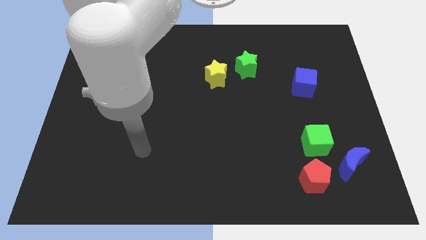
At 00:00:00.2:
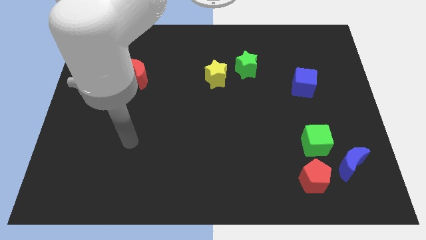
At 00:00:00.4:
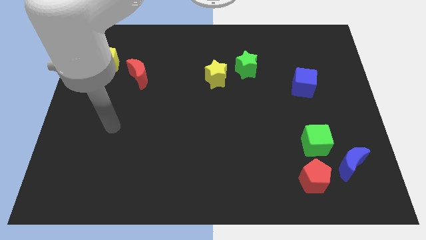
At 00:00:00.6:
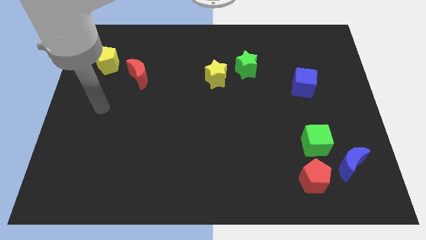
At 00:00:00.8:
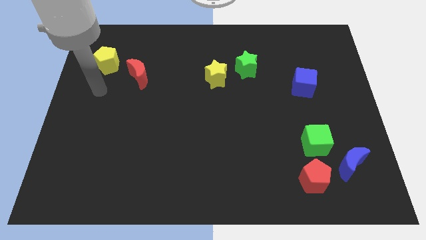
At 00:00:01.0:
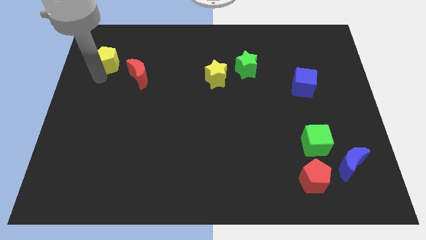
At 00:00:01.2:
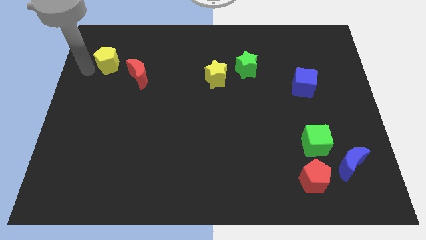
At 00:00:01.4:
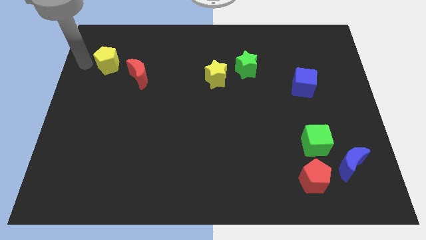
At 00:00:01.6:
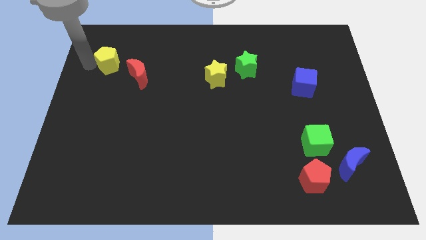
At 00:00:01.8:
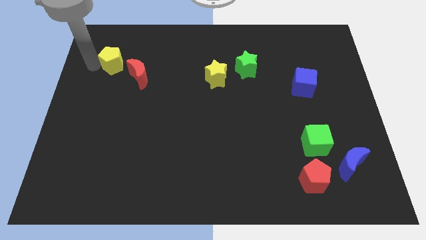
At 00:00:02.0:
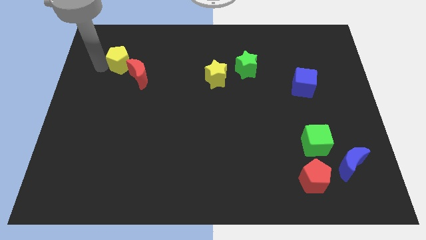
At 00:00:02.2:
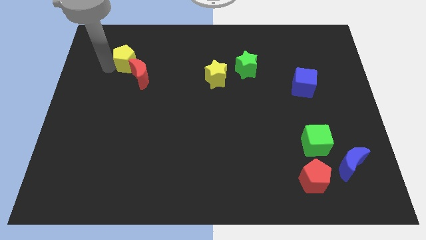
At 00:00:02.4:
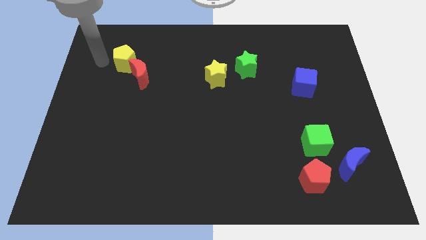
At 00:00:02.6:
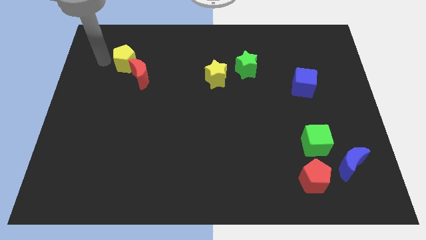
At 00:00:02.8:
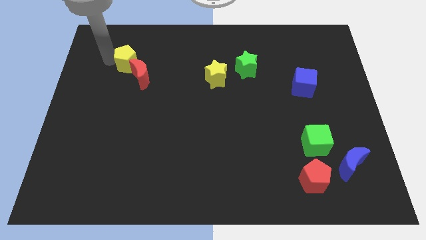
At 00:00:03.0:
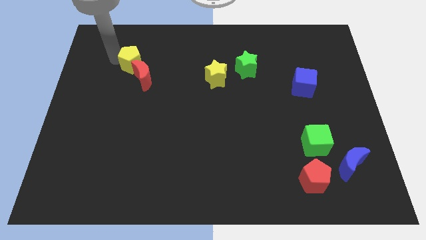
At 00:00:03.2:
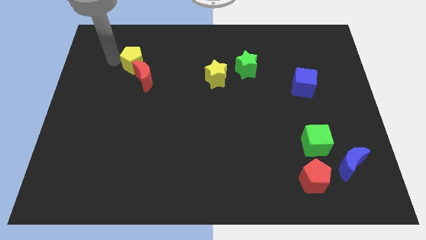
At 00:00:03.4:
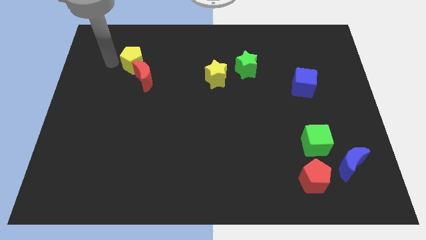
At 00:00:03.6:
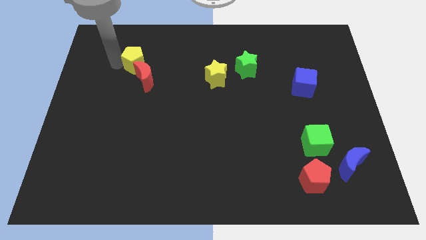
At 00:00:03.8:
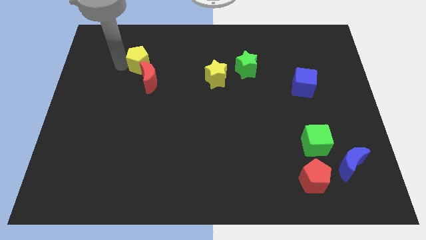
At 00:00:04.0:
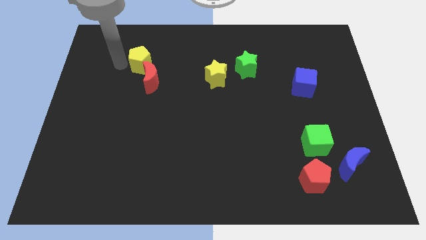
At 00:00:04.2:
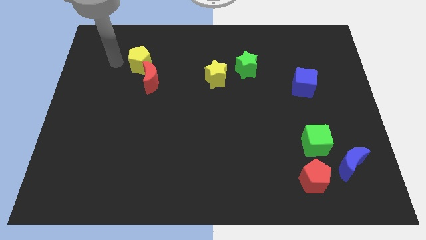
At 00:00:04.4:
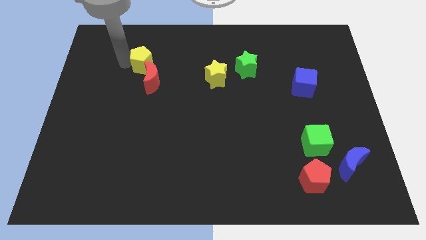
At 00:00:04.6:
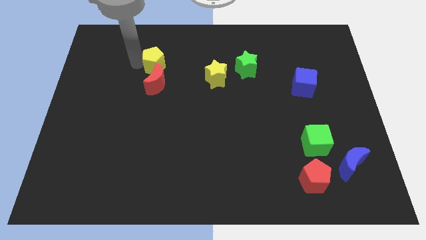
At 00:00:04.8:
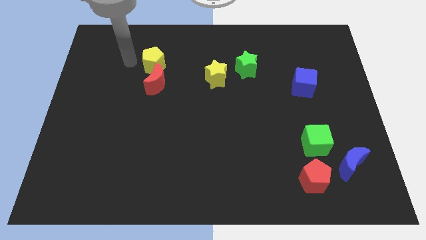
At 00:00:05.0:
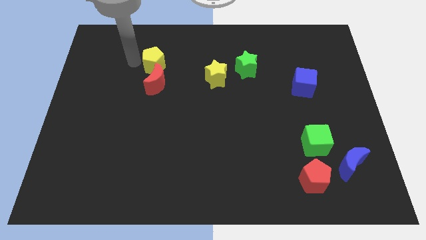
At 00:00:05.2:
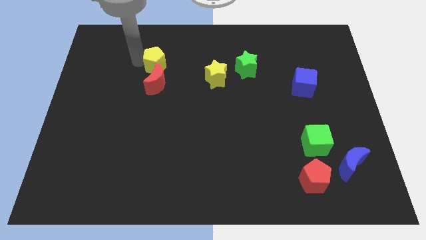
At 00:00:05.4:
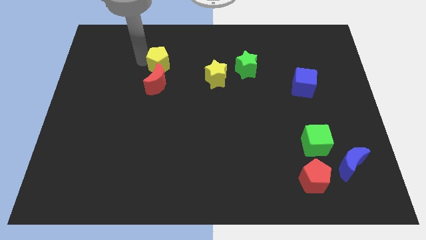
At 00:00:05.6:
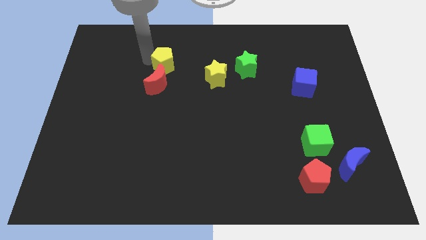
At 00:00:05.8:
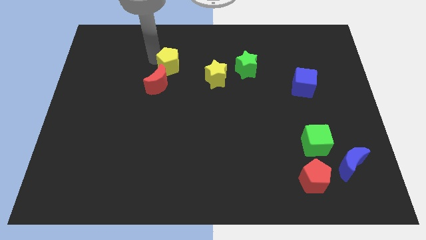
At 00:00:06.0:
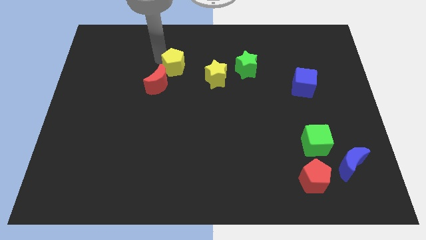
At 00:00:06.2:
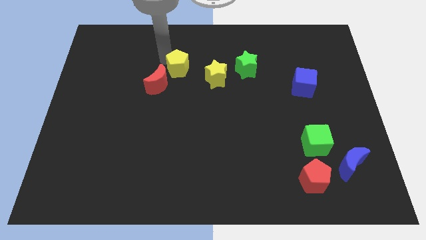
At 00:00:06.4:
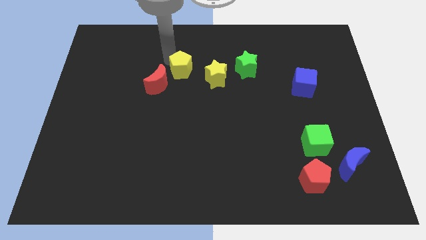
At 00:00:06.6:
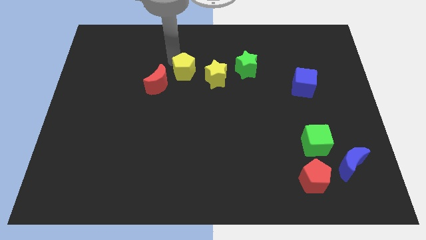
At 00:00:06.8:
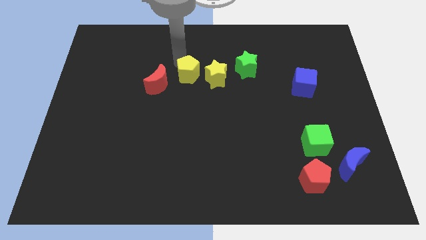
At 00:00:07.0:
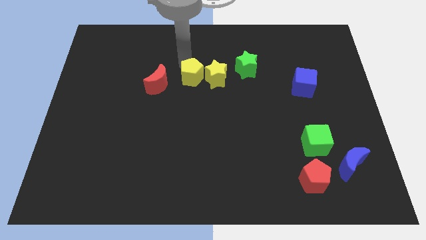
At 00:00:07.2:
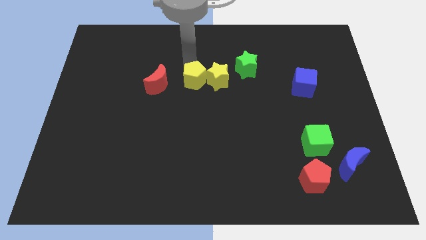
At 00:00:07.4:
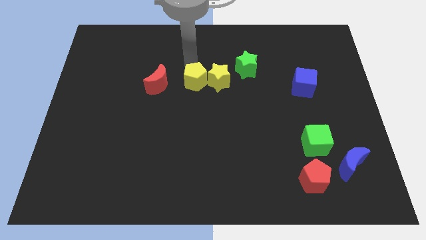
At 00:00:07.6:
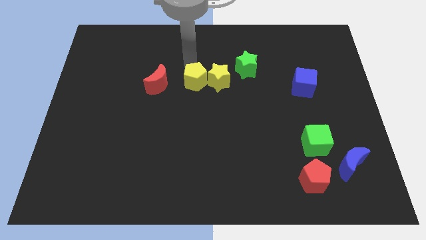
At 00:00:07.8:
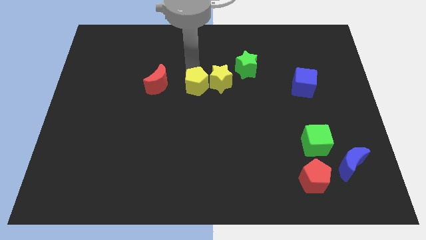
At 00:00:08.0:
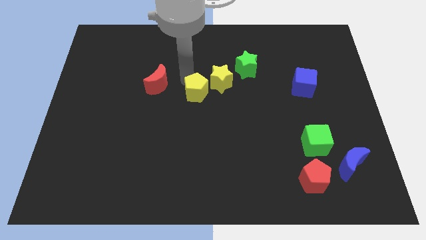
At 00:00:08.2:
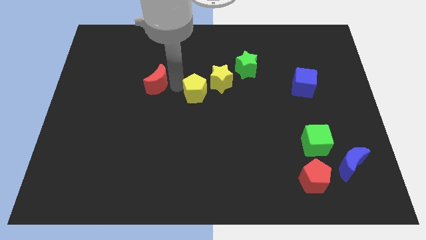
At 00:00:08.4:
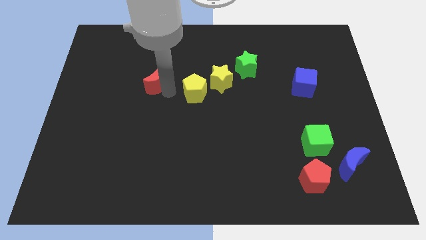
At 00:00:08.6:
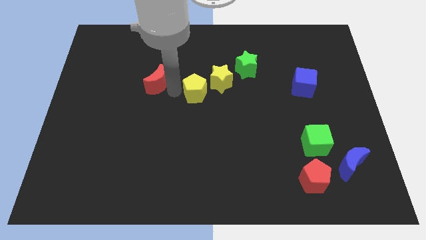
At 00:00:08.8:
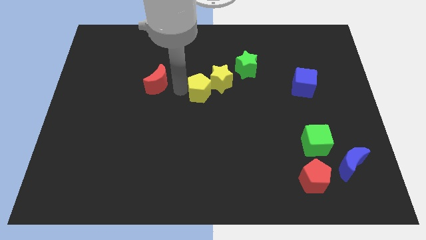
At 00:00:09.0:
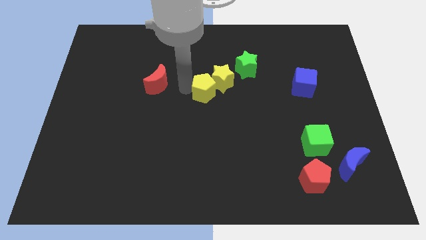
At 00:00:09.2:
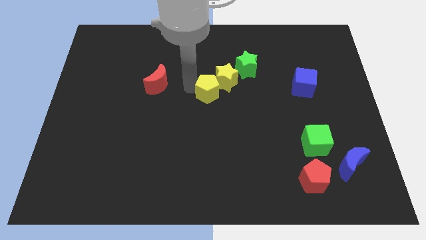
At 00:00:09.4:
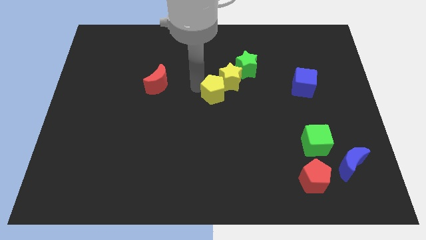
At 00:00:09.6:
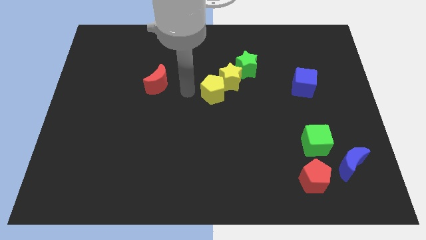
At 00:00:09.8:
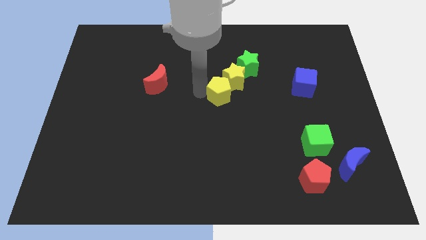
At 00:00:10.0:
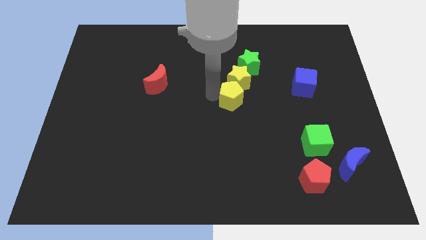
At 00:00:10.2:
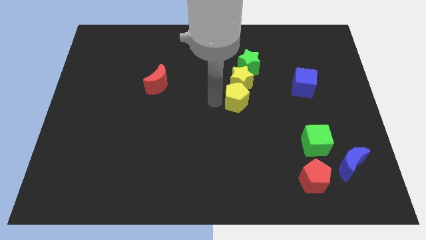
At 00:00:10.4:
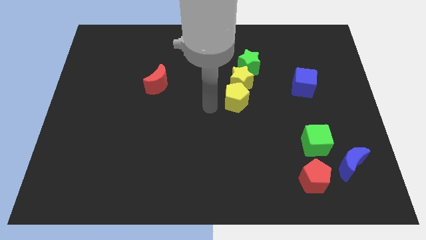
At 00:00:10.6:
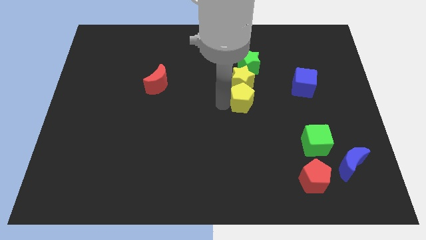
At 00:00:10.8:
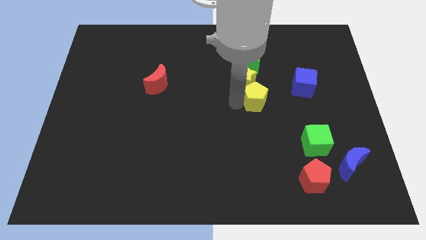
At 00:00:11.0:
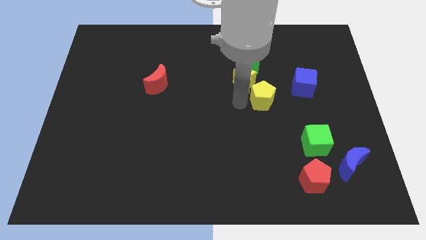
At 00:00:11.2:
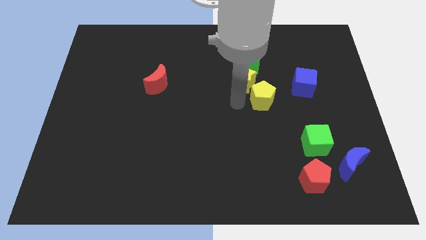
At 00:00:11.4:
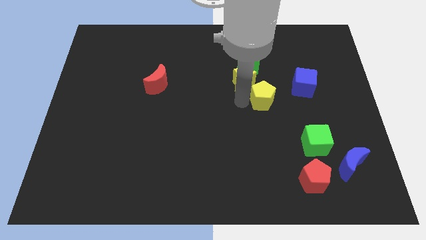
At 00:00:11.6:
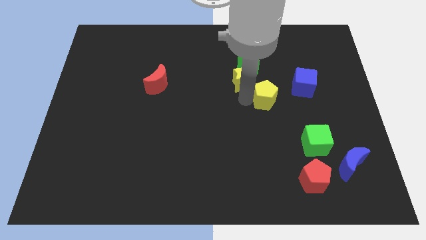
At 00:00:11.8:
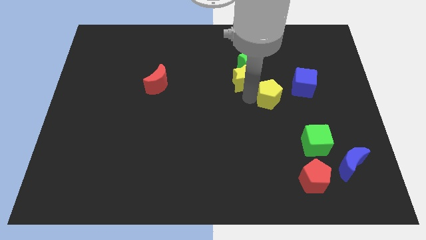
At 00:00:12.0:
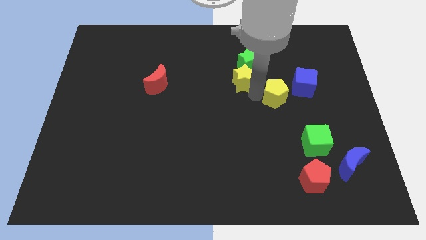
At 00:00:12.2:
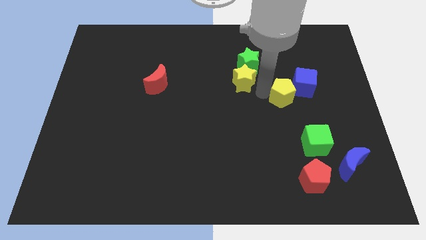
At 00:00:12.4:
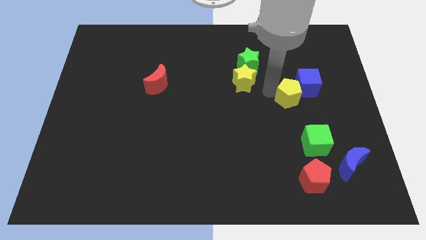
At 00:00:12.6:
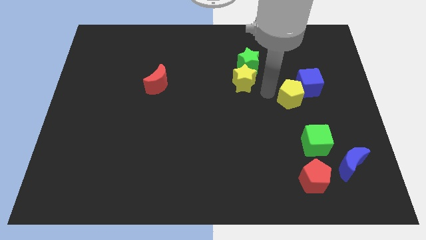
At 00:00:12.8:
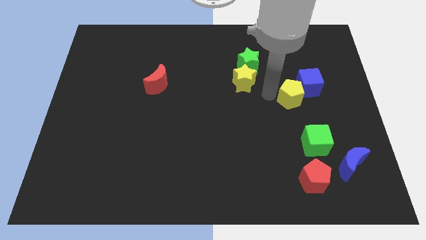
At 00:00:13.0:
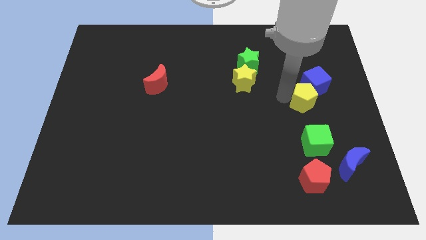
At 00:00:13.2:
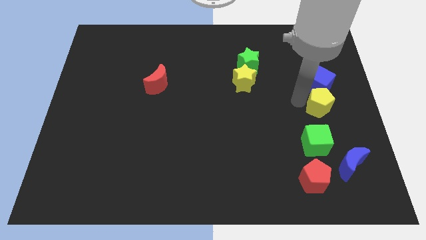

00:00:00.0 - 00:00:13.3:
push the yellow pentagon to the right side of the board
